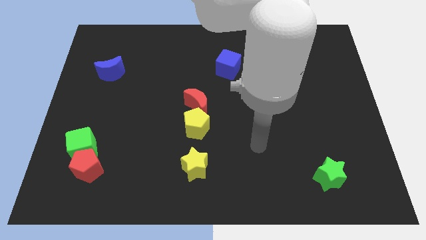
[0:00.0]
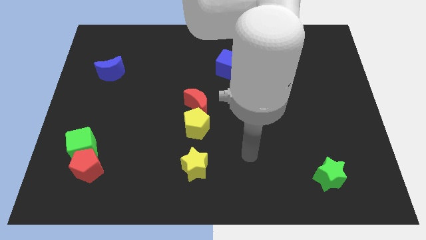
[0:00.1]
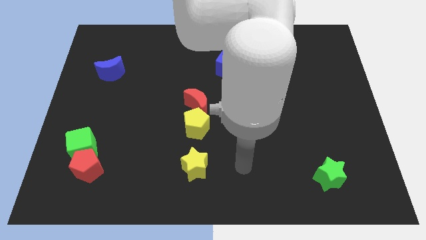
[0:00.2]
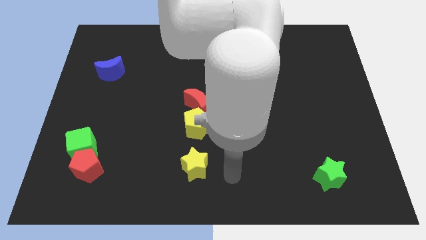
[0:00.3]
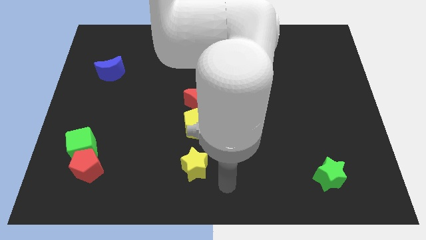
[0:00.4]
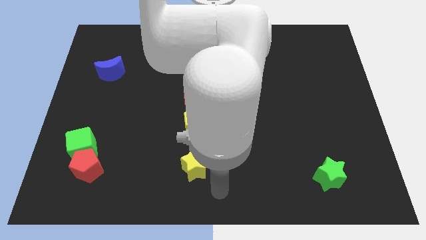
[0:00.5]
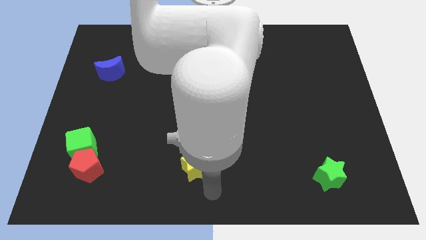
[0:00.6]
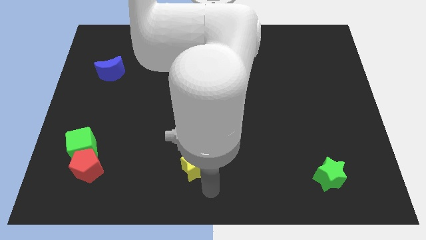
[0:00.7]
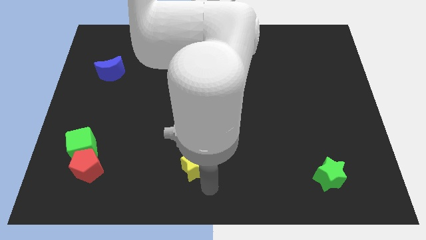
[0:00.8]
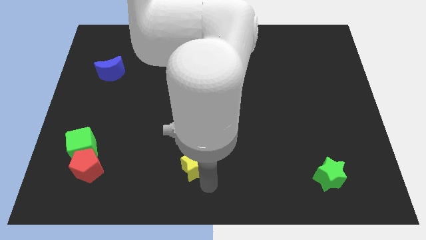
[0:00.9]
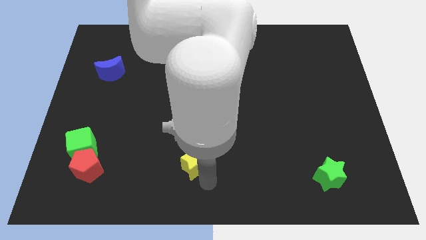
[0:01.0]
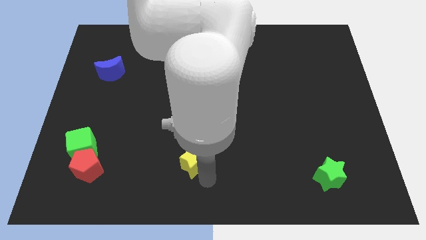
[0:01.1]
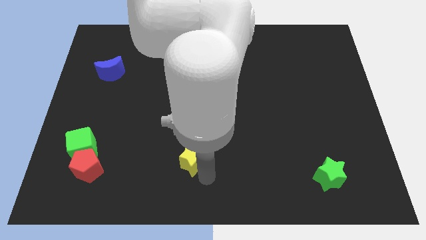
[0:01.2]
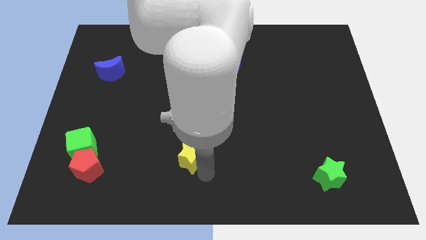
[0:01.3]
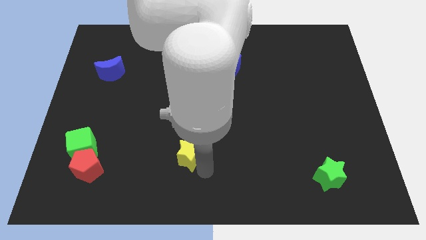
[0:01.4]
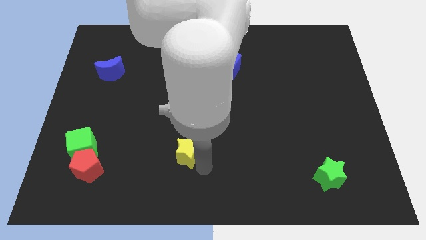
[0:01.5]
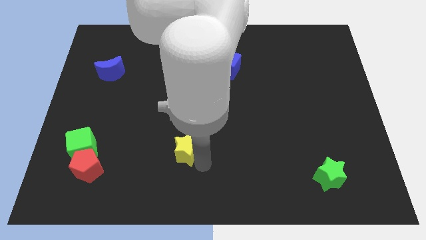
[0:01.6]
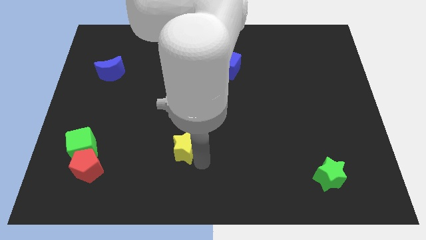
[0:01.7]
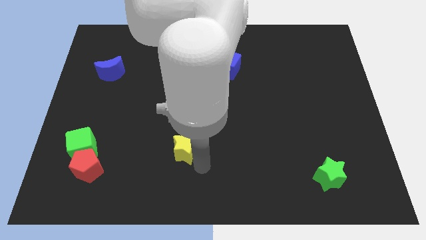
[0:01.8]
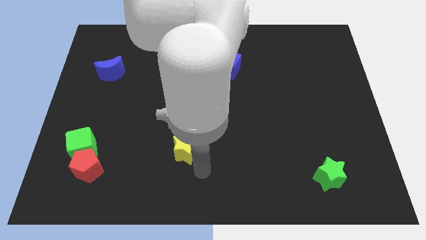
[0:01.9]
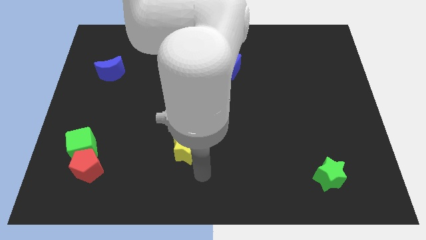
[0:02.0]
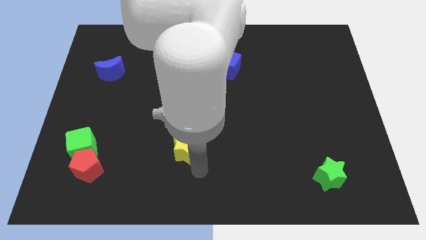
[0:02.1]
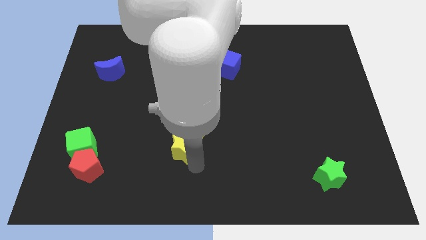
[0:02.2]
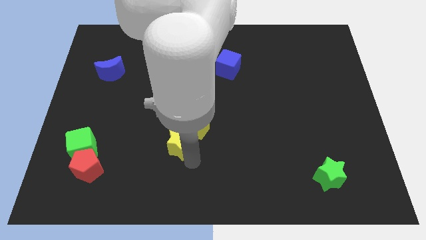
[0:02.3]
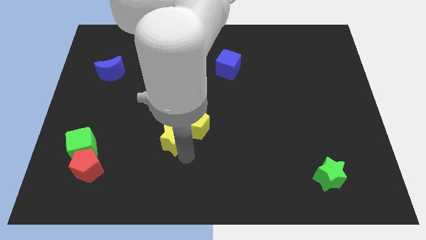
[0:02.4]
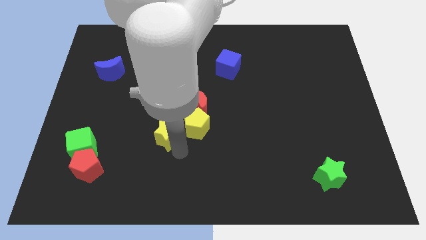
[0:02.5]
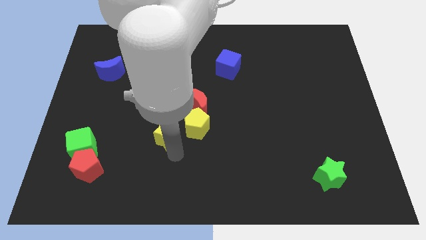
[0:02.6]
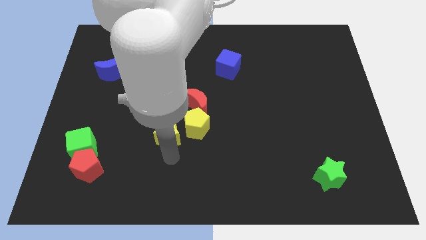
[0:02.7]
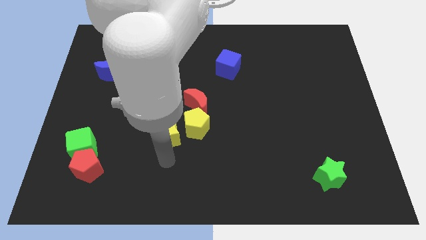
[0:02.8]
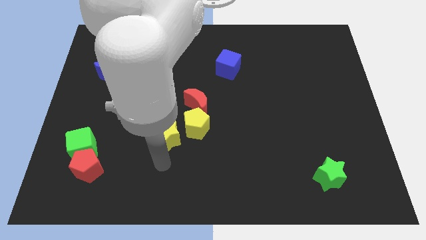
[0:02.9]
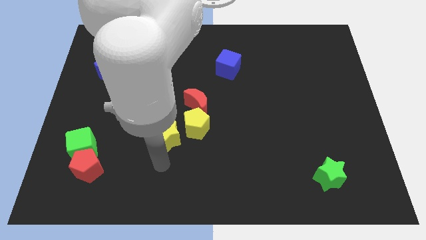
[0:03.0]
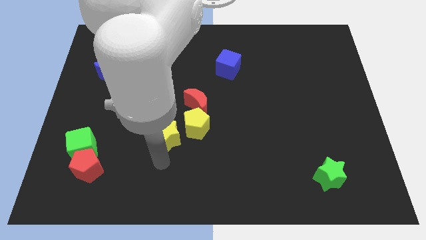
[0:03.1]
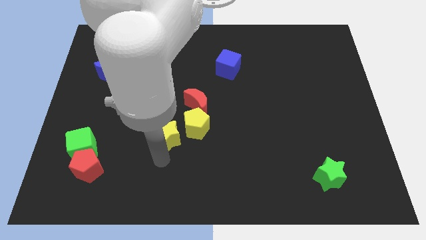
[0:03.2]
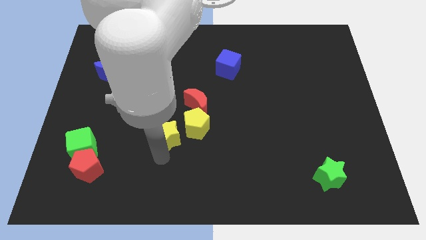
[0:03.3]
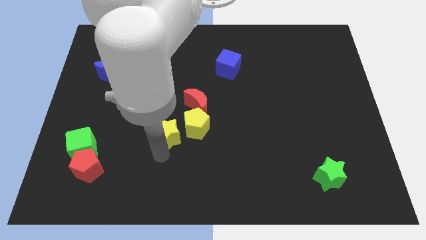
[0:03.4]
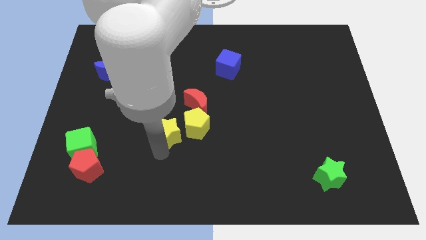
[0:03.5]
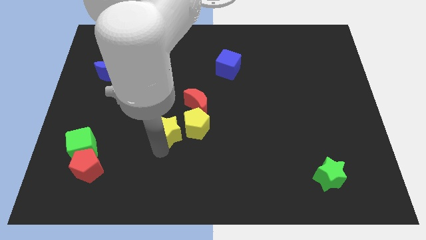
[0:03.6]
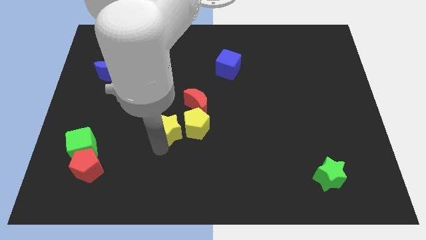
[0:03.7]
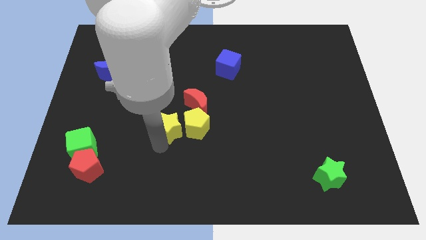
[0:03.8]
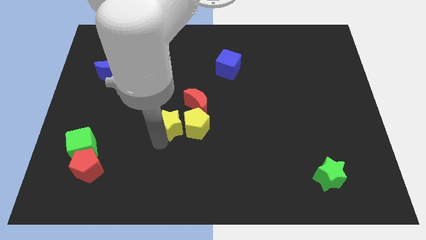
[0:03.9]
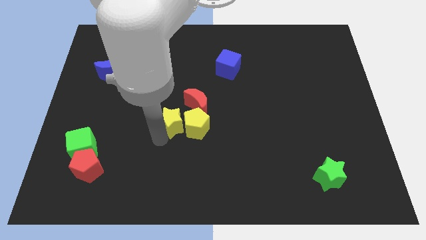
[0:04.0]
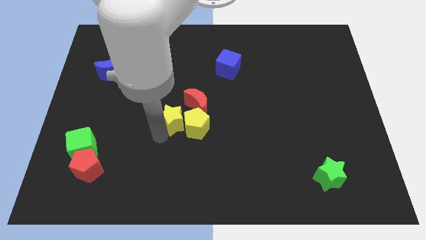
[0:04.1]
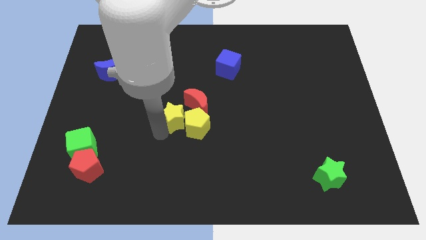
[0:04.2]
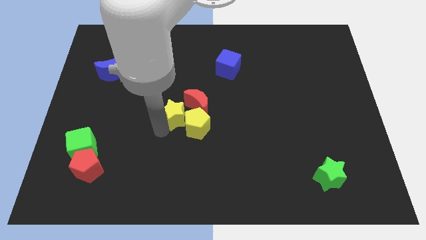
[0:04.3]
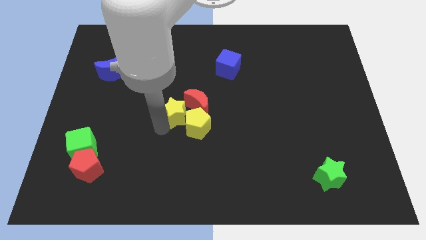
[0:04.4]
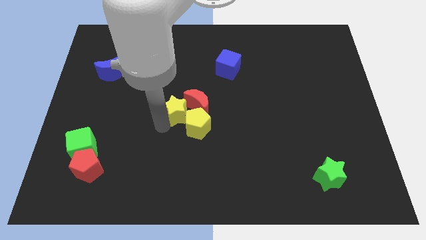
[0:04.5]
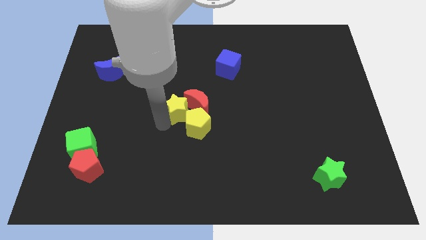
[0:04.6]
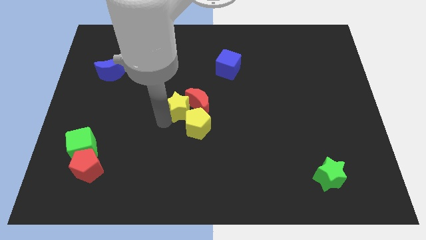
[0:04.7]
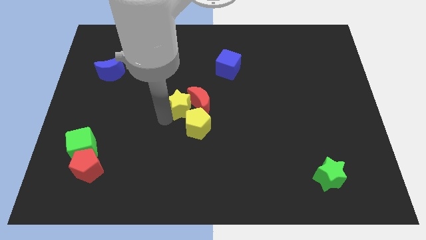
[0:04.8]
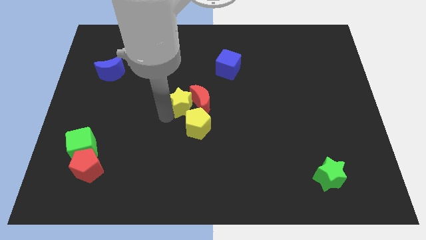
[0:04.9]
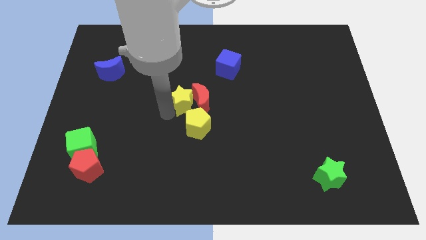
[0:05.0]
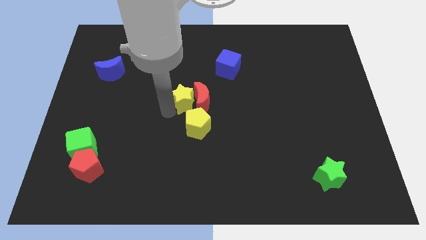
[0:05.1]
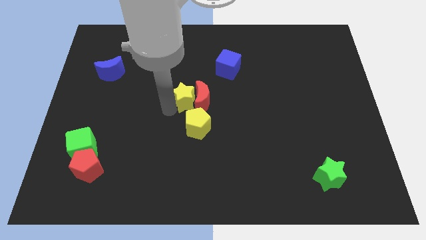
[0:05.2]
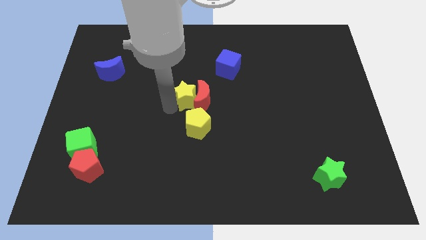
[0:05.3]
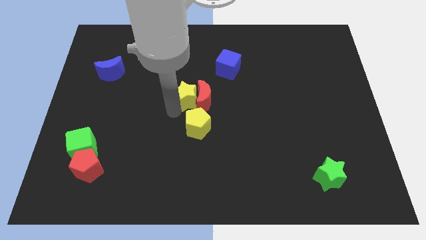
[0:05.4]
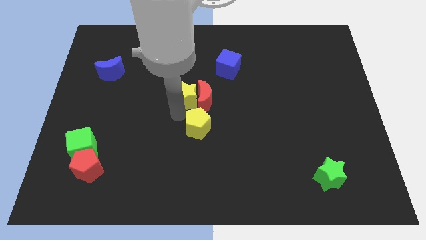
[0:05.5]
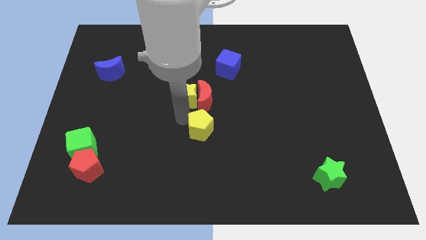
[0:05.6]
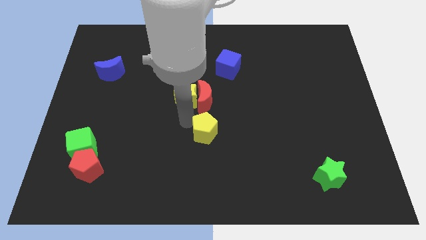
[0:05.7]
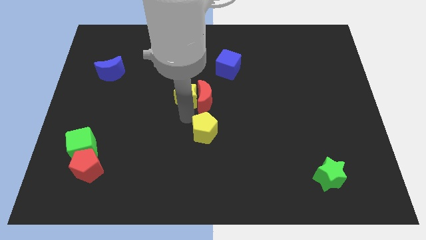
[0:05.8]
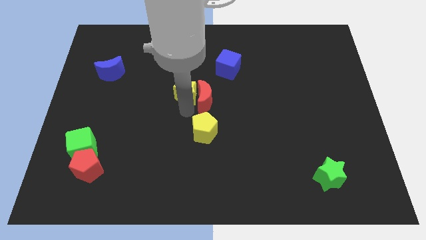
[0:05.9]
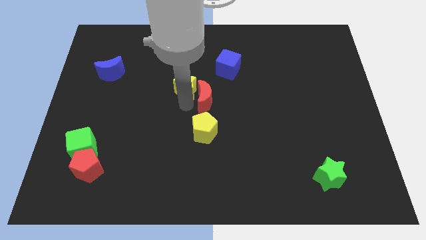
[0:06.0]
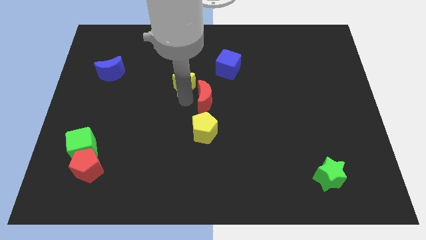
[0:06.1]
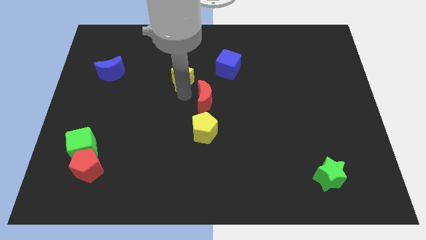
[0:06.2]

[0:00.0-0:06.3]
put the yellow star to the left of the blue cube
